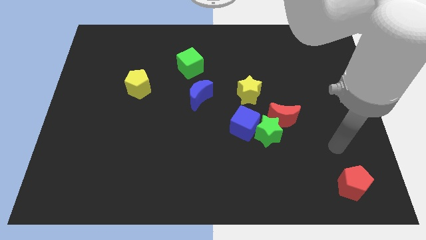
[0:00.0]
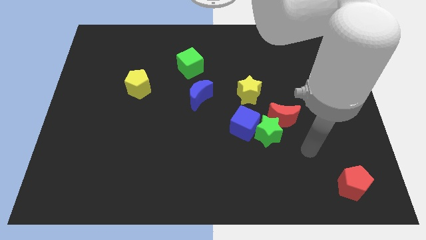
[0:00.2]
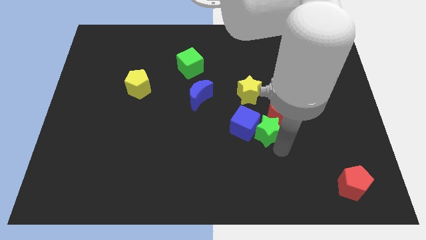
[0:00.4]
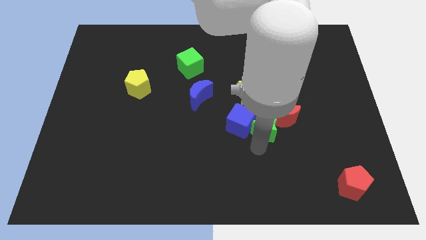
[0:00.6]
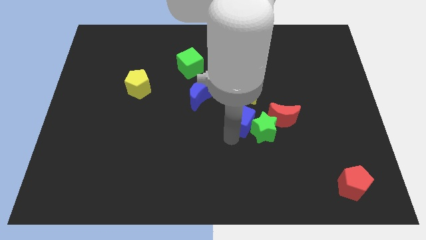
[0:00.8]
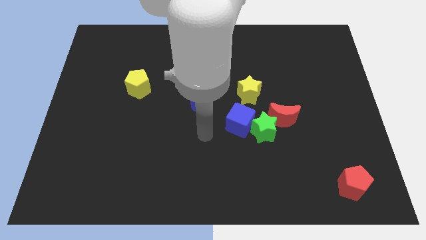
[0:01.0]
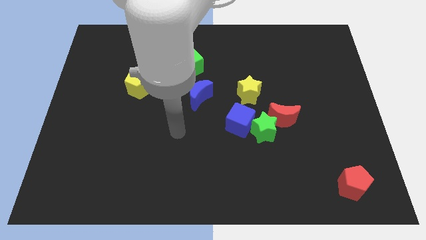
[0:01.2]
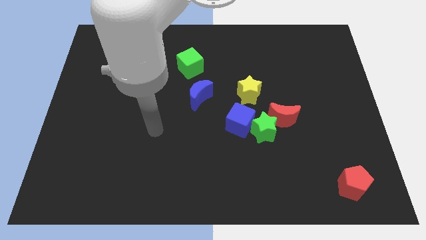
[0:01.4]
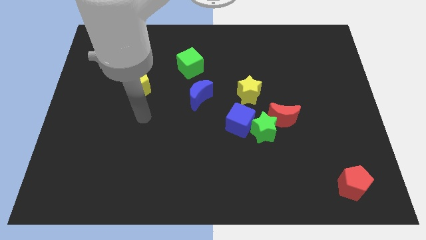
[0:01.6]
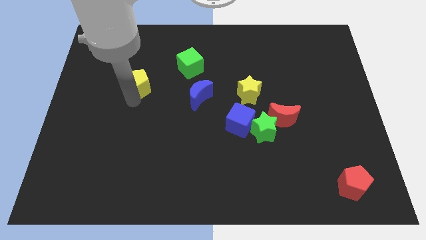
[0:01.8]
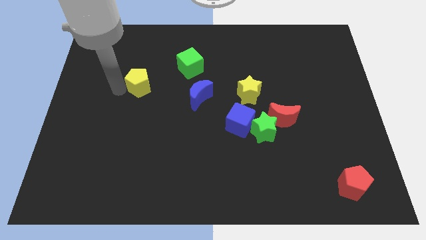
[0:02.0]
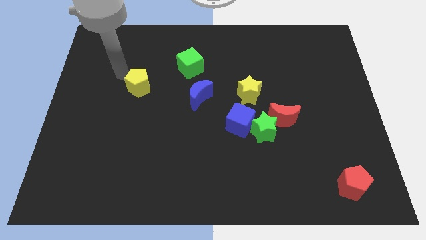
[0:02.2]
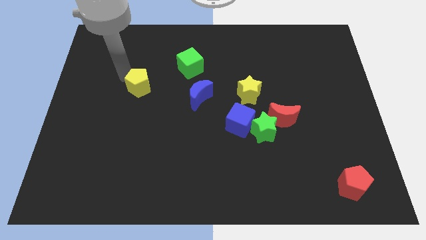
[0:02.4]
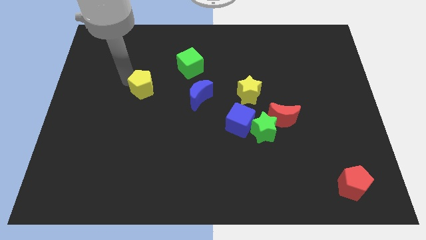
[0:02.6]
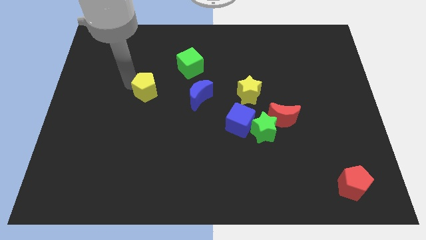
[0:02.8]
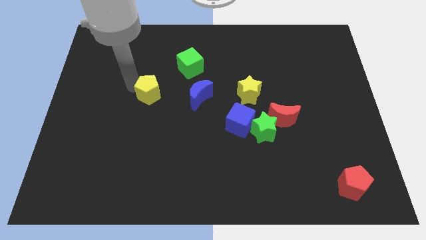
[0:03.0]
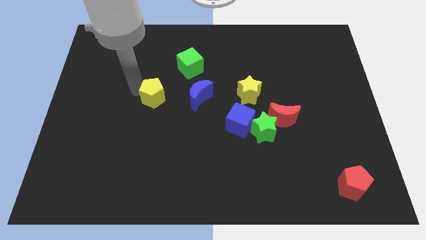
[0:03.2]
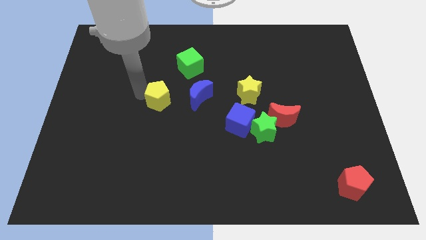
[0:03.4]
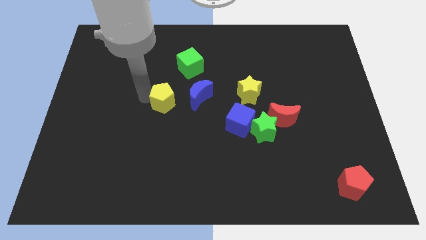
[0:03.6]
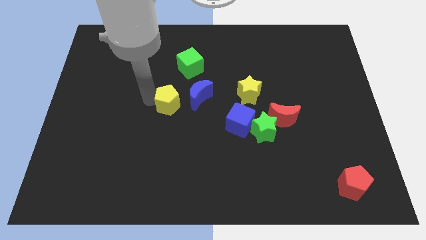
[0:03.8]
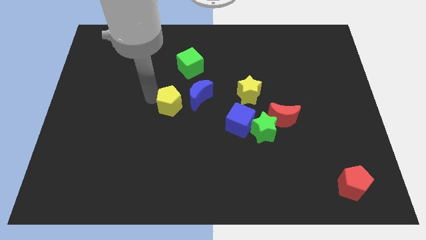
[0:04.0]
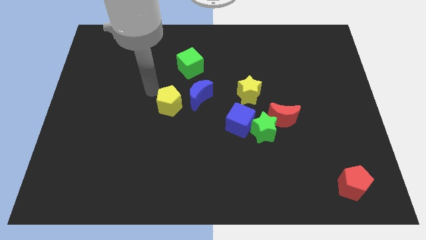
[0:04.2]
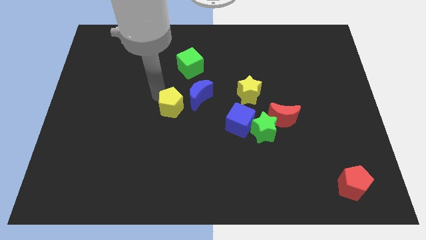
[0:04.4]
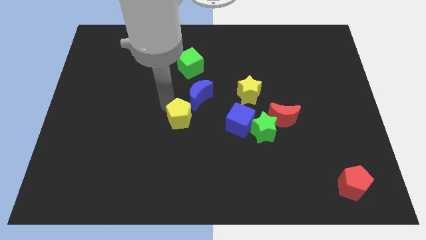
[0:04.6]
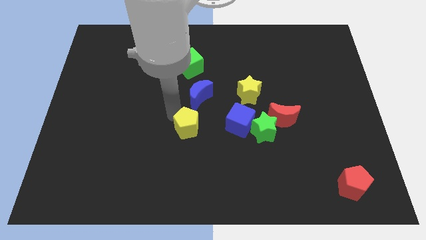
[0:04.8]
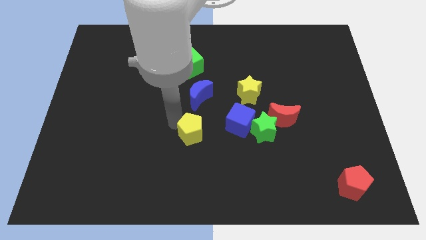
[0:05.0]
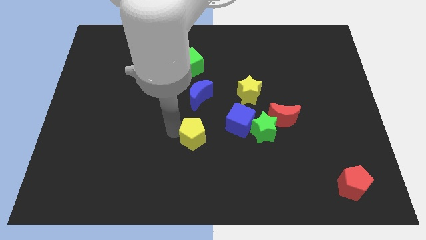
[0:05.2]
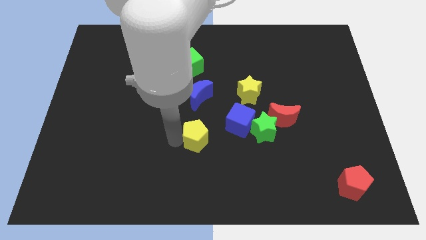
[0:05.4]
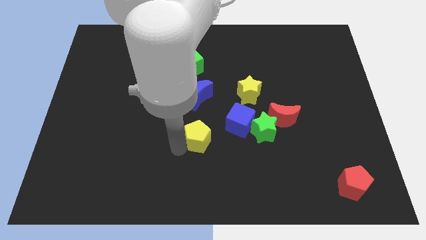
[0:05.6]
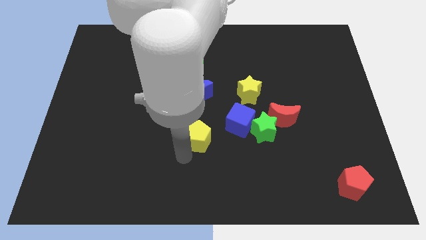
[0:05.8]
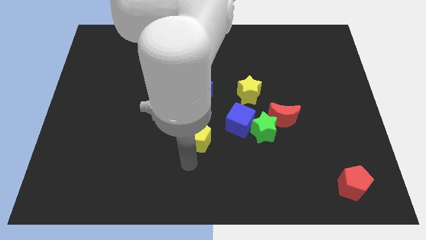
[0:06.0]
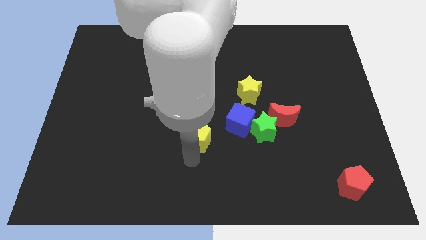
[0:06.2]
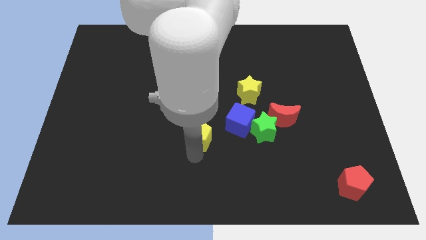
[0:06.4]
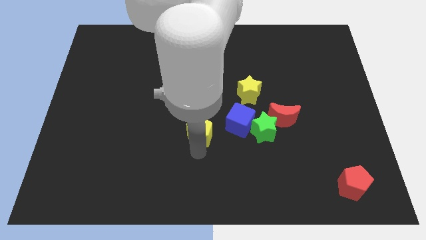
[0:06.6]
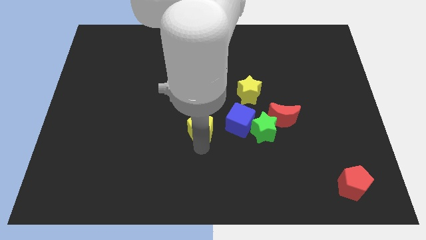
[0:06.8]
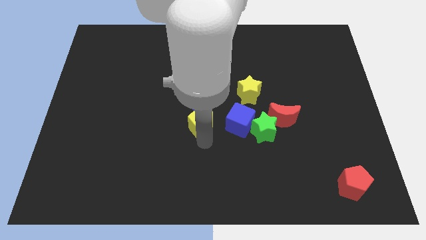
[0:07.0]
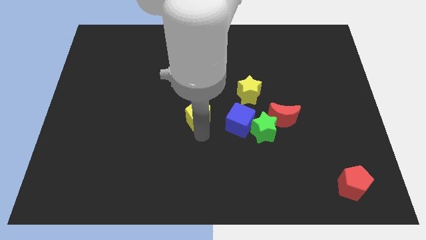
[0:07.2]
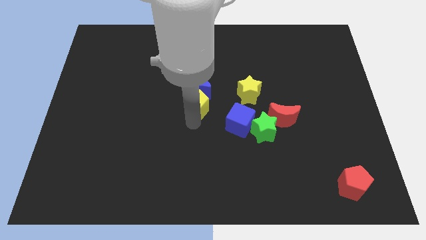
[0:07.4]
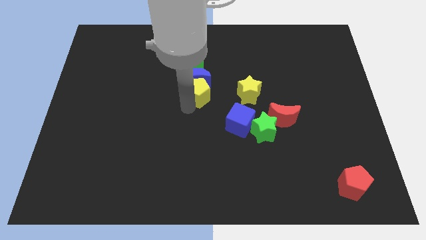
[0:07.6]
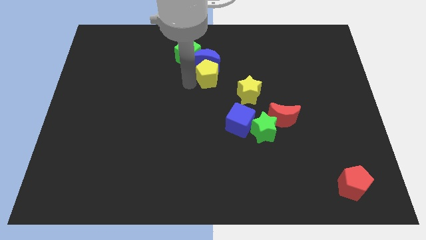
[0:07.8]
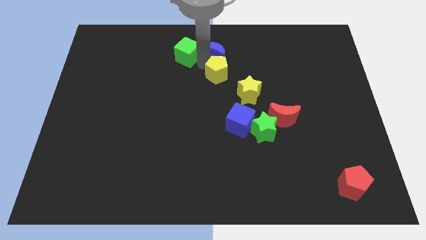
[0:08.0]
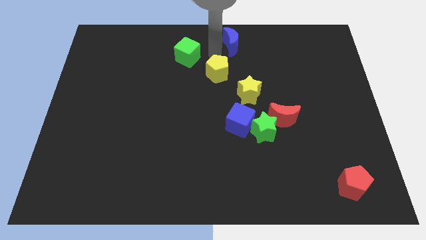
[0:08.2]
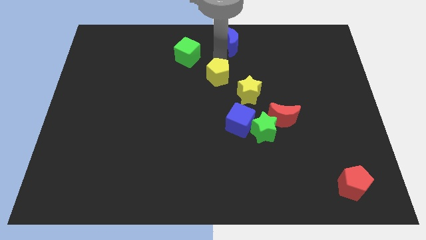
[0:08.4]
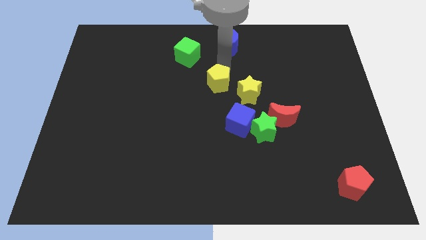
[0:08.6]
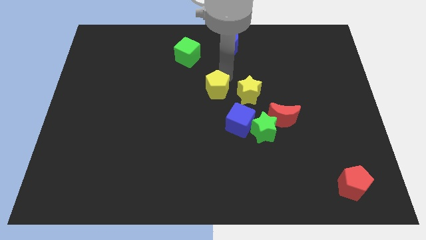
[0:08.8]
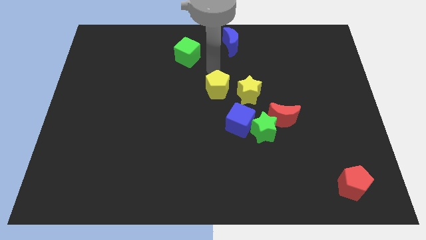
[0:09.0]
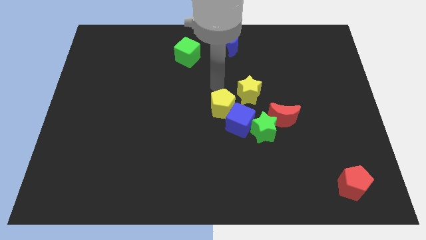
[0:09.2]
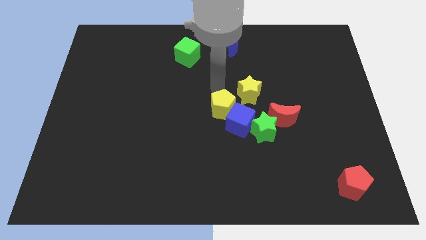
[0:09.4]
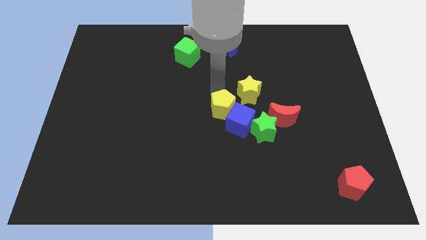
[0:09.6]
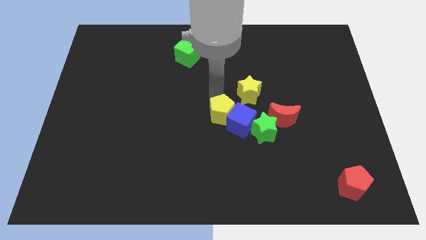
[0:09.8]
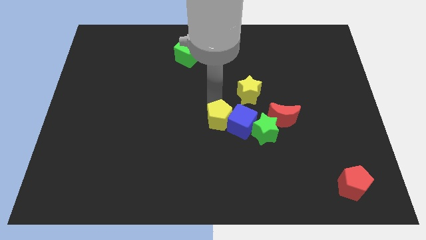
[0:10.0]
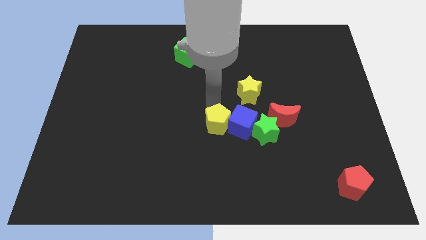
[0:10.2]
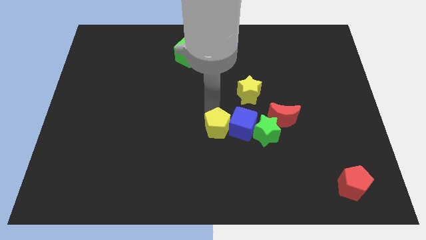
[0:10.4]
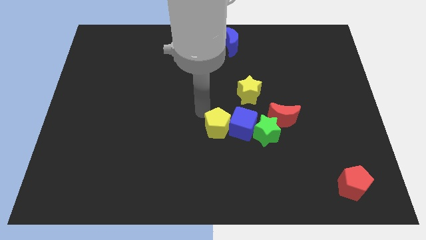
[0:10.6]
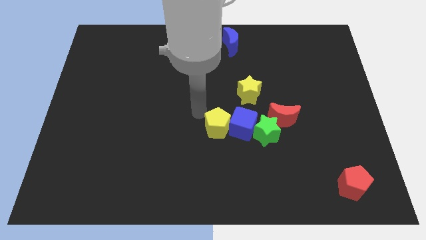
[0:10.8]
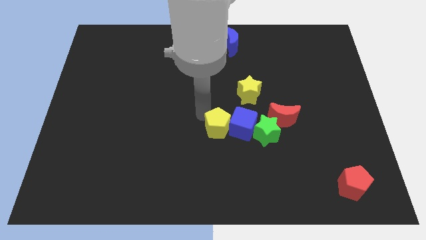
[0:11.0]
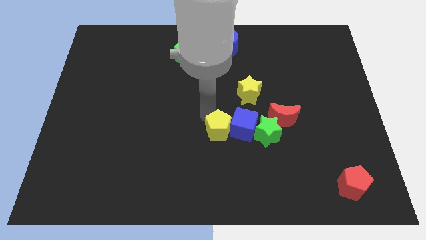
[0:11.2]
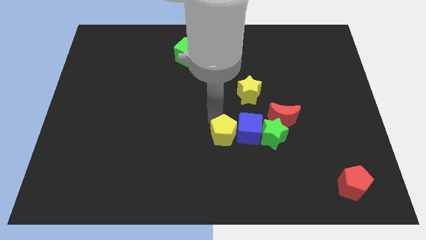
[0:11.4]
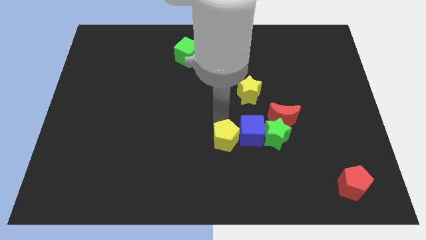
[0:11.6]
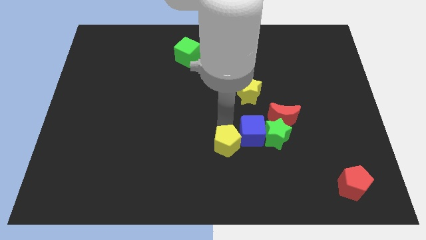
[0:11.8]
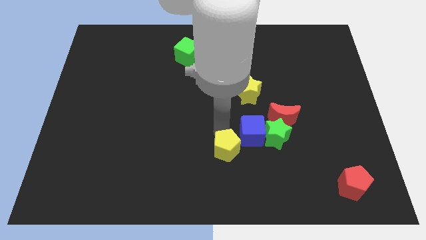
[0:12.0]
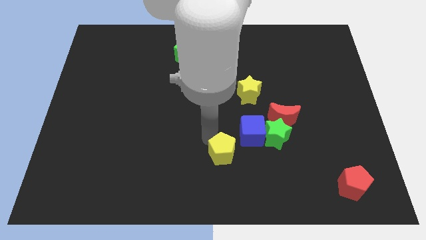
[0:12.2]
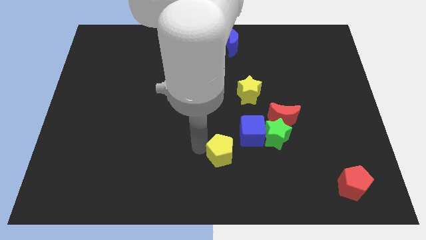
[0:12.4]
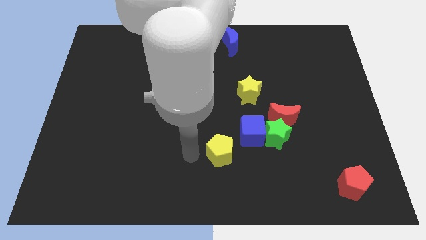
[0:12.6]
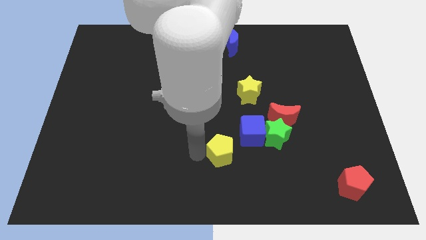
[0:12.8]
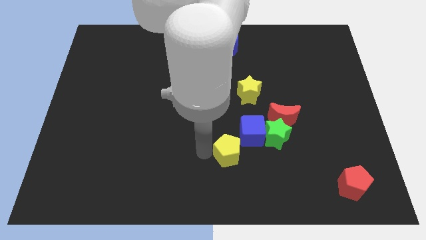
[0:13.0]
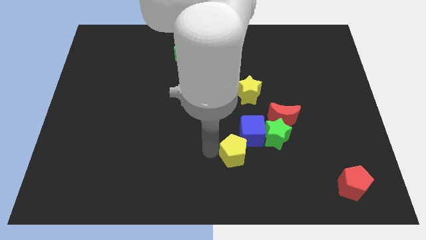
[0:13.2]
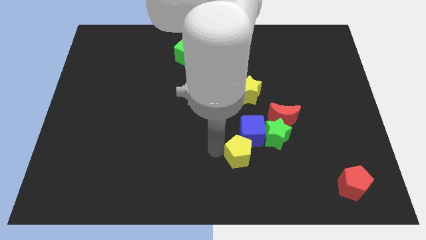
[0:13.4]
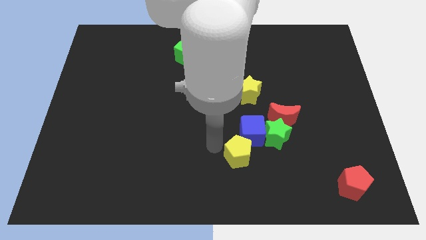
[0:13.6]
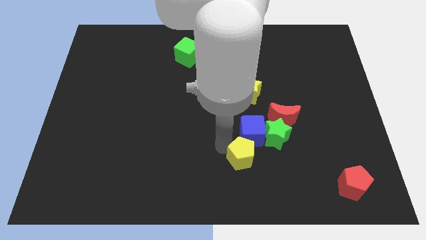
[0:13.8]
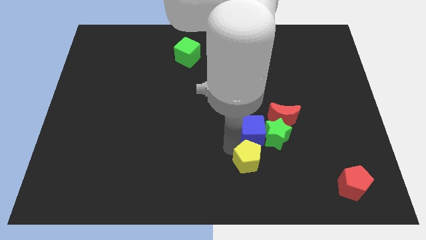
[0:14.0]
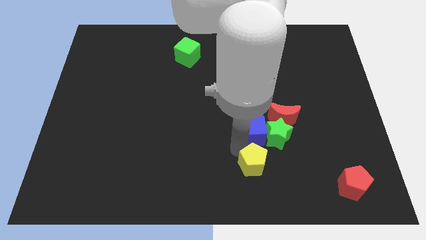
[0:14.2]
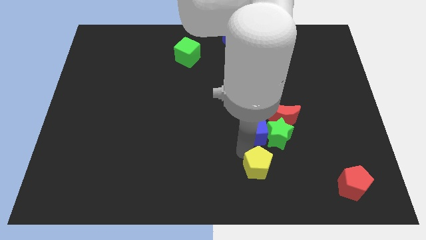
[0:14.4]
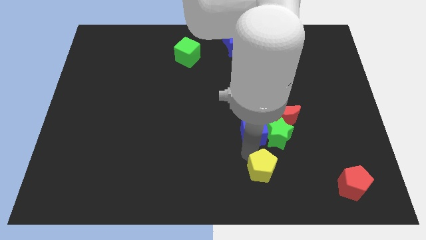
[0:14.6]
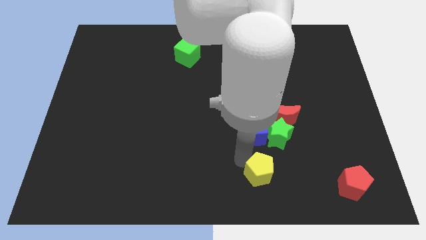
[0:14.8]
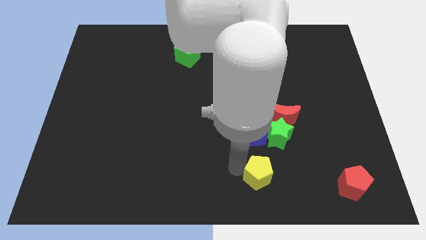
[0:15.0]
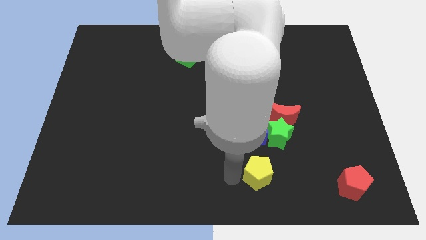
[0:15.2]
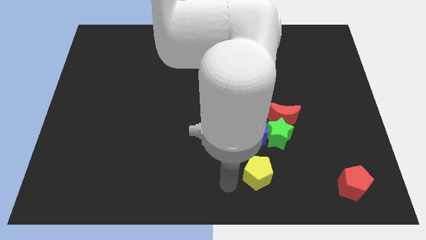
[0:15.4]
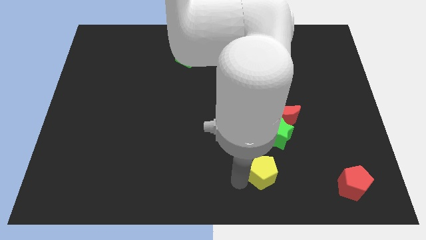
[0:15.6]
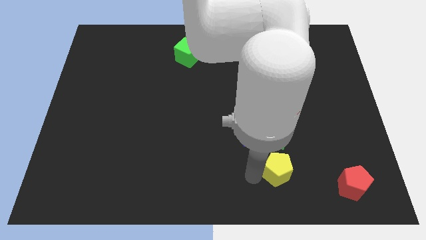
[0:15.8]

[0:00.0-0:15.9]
slide the yellow pentagon just left of the red pentagon
